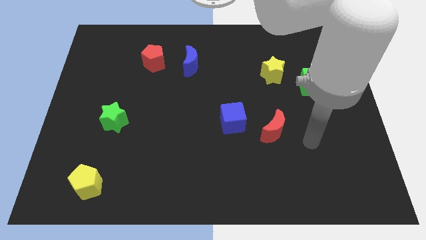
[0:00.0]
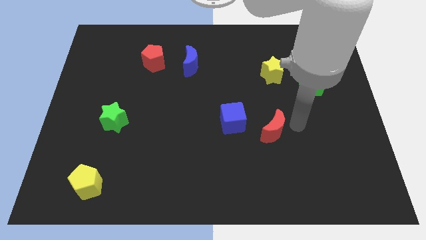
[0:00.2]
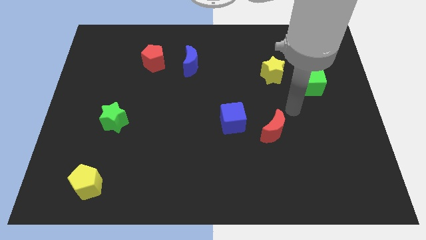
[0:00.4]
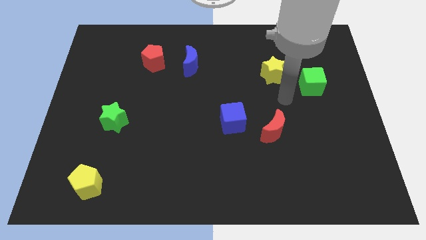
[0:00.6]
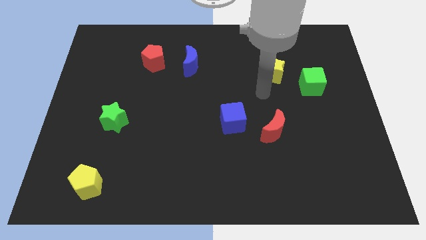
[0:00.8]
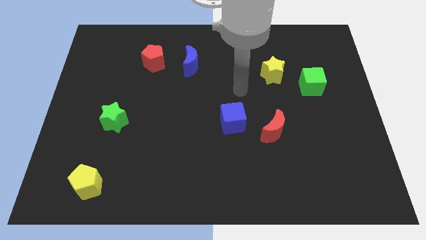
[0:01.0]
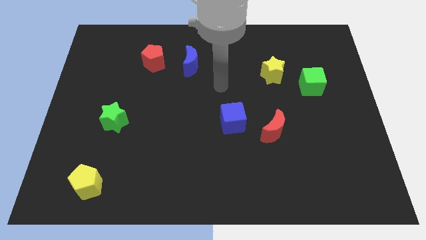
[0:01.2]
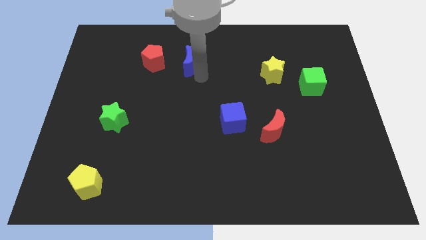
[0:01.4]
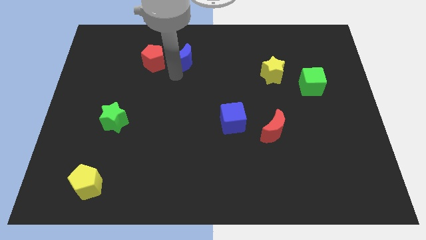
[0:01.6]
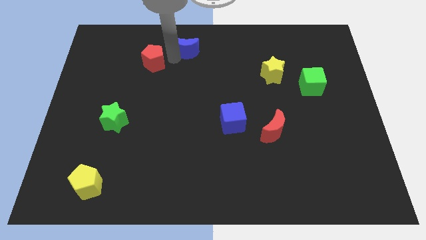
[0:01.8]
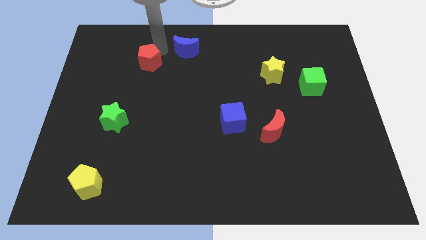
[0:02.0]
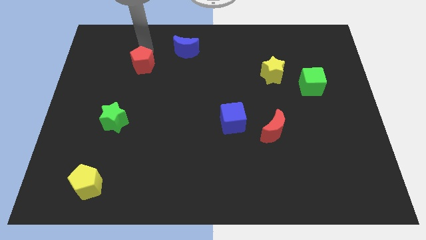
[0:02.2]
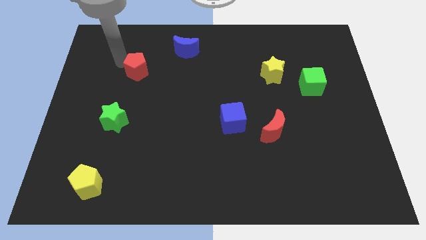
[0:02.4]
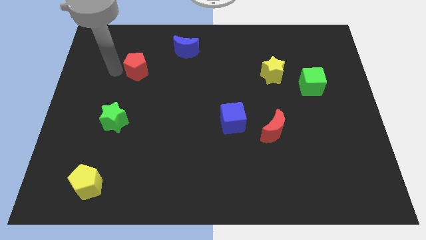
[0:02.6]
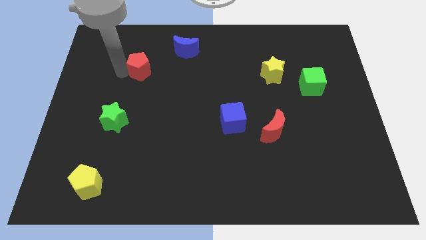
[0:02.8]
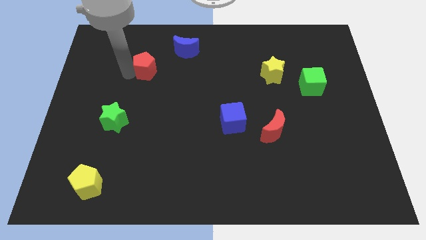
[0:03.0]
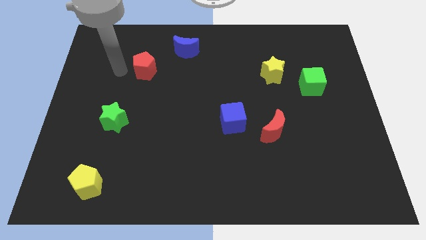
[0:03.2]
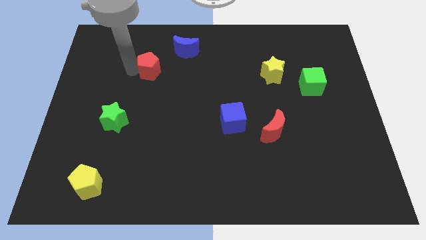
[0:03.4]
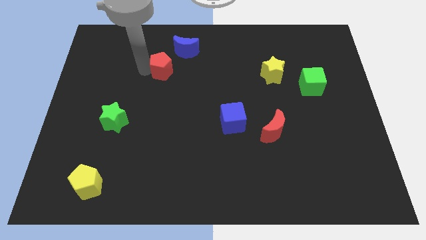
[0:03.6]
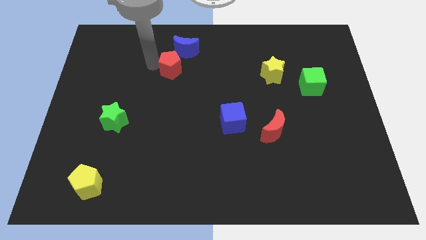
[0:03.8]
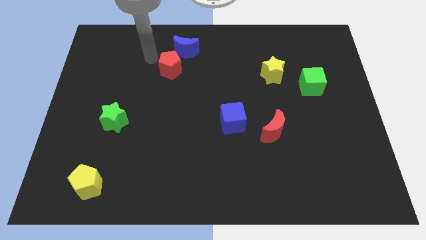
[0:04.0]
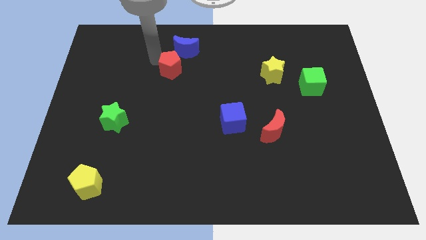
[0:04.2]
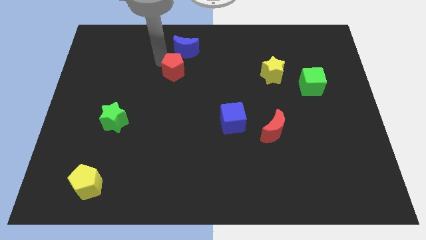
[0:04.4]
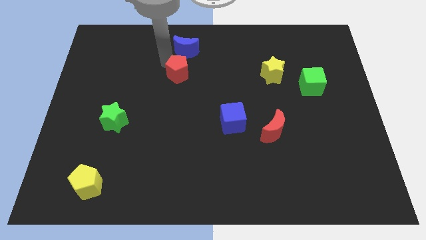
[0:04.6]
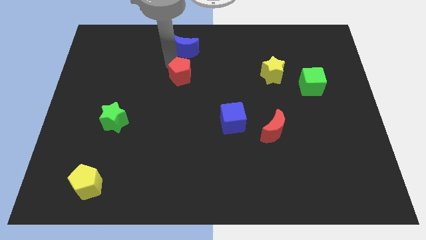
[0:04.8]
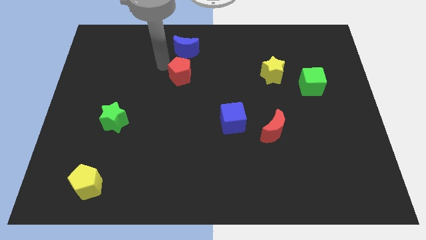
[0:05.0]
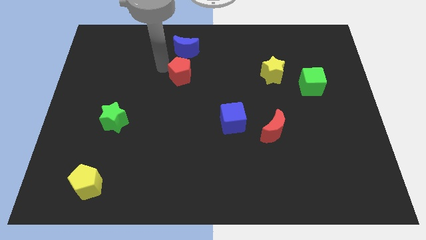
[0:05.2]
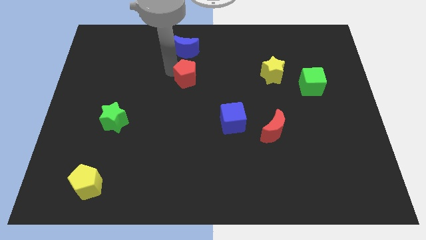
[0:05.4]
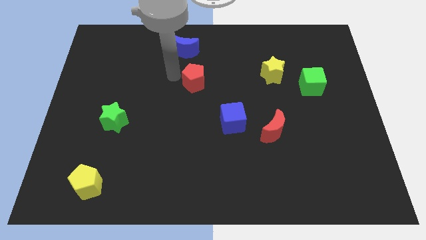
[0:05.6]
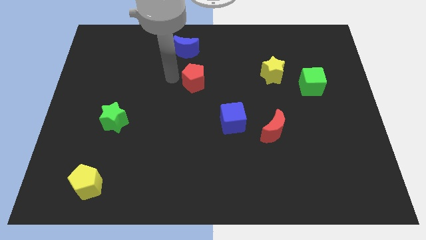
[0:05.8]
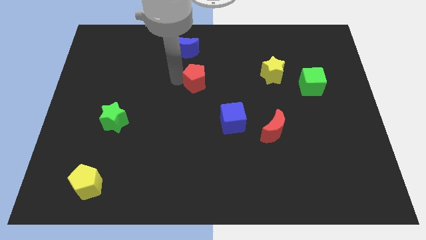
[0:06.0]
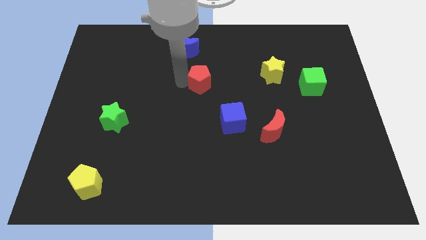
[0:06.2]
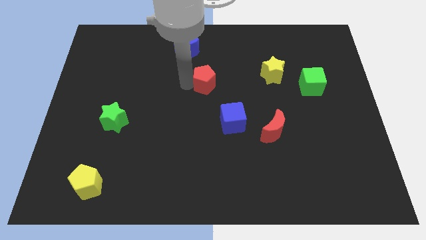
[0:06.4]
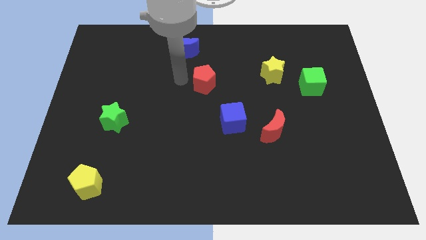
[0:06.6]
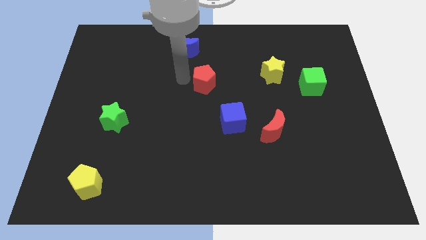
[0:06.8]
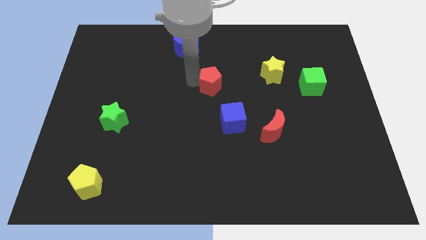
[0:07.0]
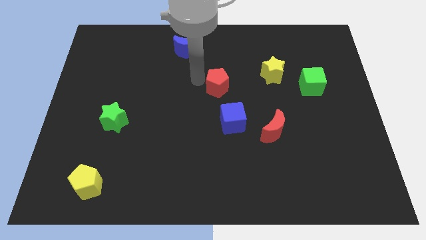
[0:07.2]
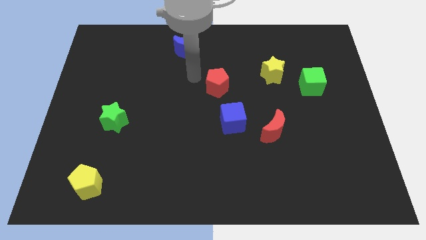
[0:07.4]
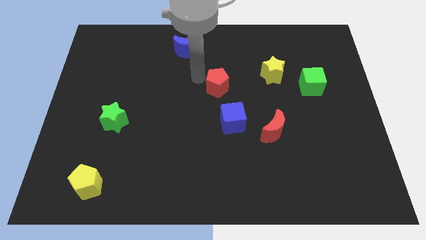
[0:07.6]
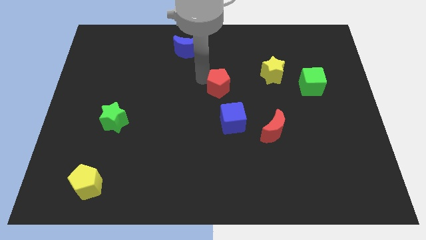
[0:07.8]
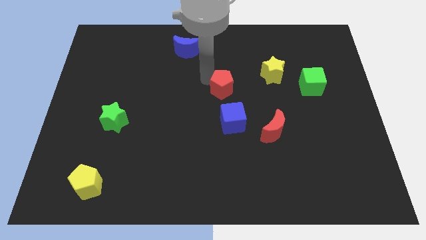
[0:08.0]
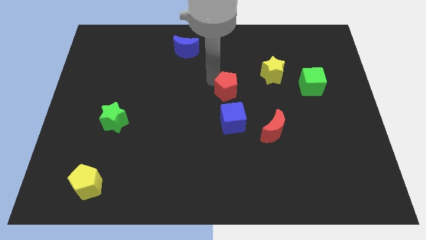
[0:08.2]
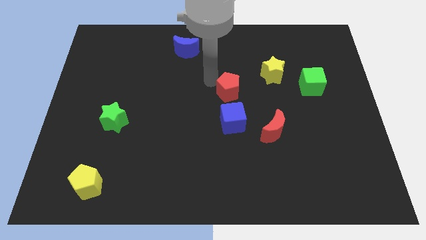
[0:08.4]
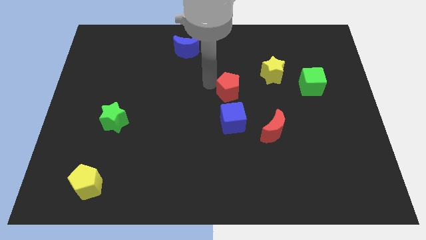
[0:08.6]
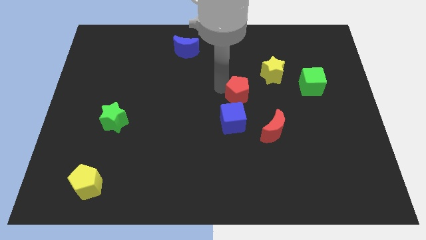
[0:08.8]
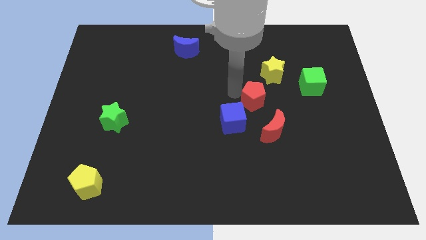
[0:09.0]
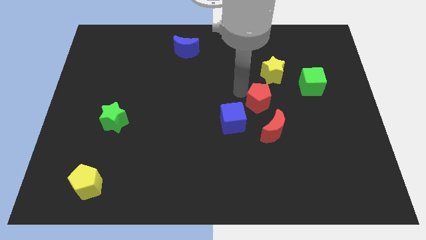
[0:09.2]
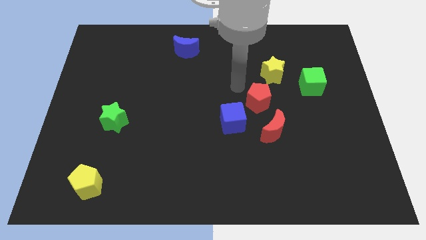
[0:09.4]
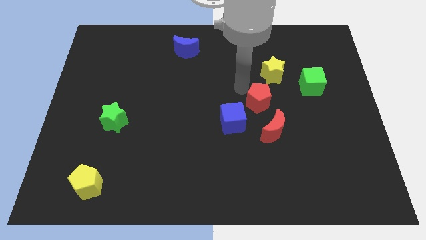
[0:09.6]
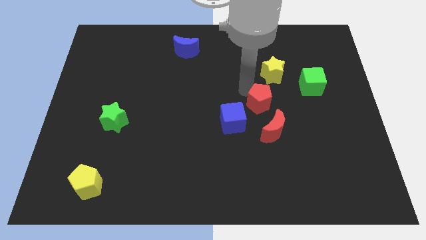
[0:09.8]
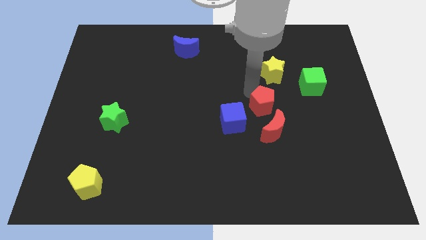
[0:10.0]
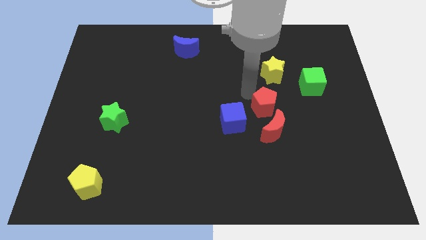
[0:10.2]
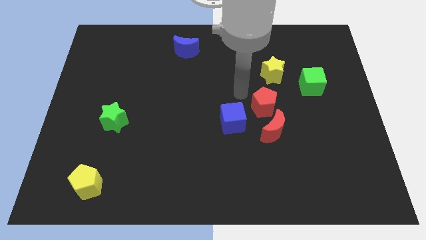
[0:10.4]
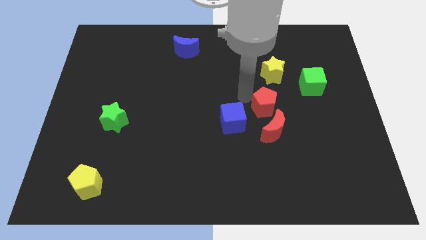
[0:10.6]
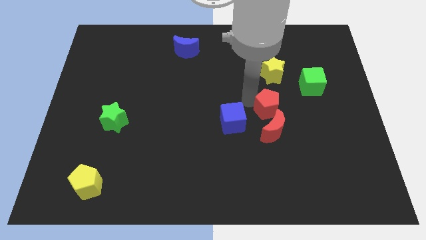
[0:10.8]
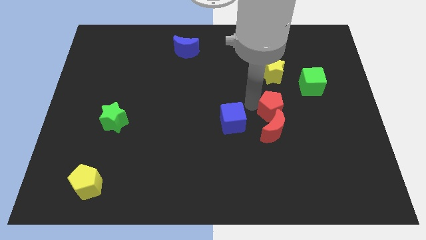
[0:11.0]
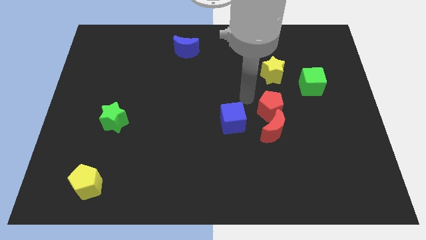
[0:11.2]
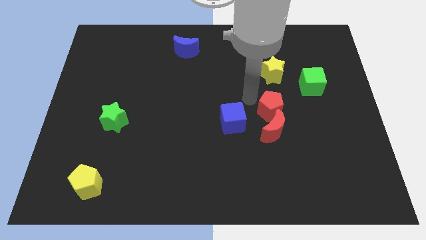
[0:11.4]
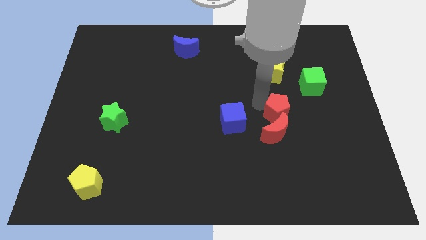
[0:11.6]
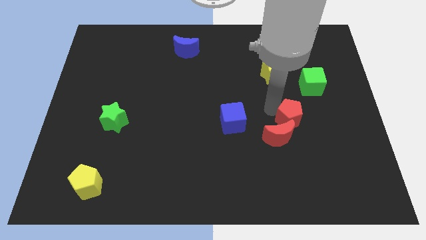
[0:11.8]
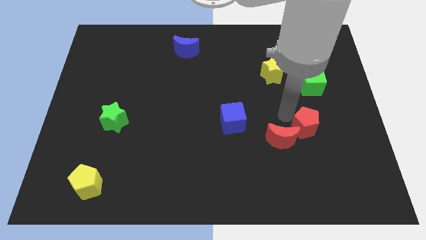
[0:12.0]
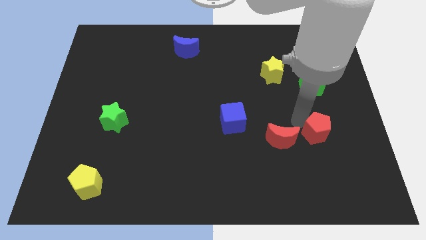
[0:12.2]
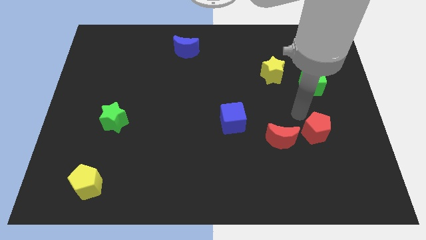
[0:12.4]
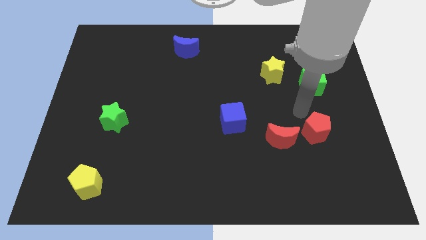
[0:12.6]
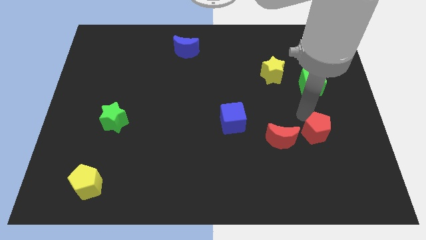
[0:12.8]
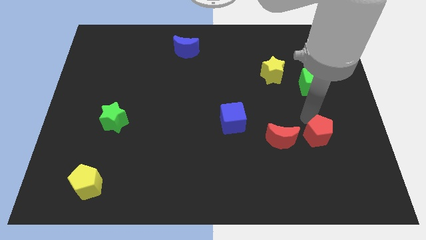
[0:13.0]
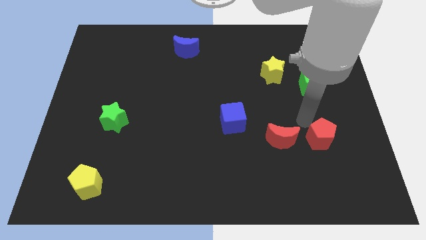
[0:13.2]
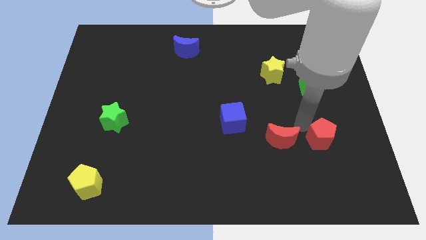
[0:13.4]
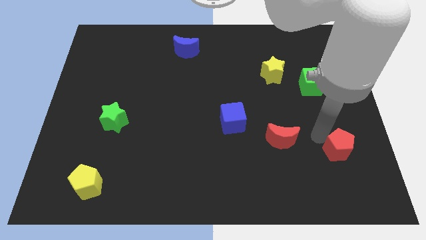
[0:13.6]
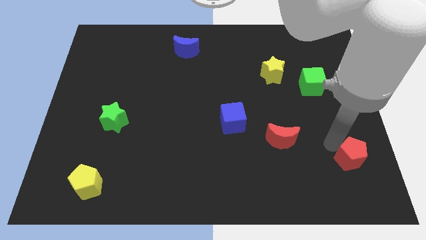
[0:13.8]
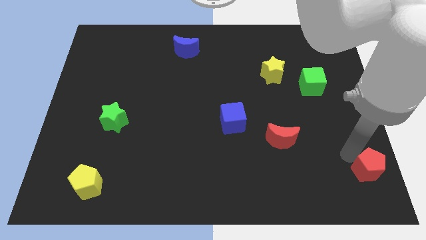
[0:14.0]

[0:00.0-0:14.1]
move the red pentagon to the bottom right corner
